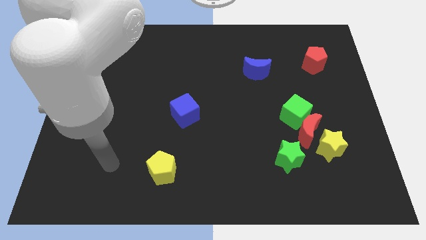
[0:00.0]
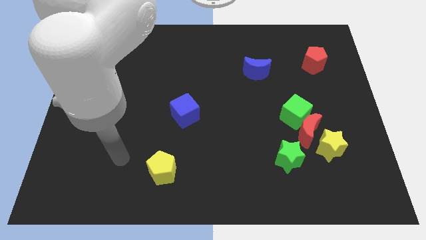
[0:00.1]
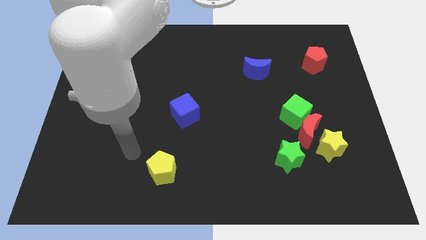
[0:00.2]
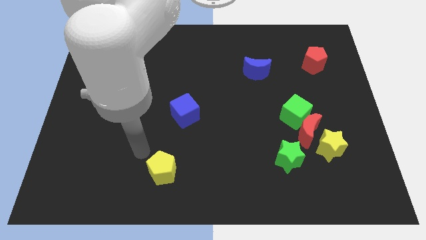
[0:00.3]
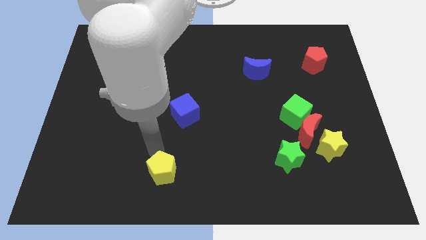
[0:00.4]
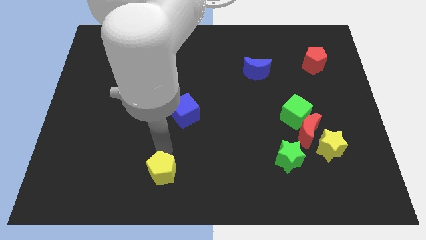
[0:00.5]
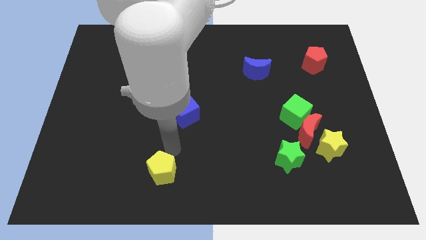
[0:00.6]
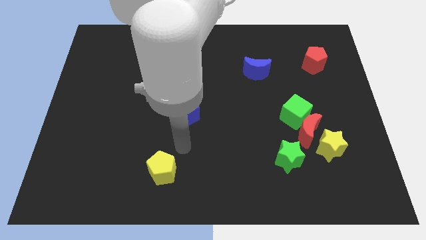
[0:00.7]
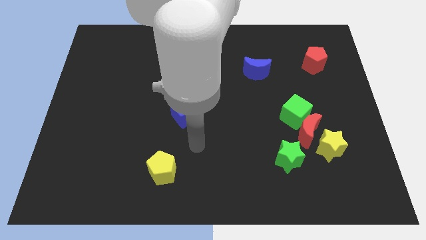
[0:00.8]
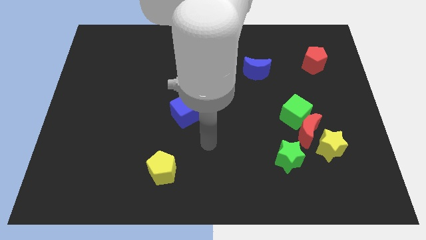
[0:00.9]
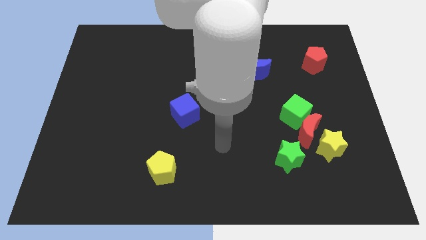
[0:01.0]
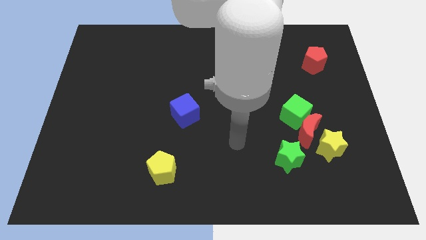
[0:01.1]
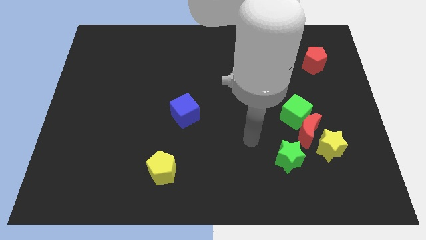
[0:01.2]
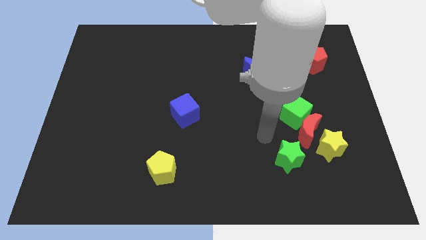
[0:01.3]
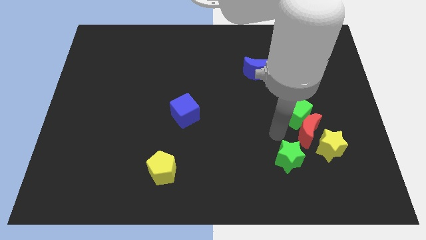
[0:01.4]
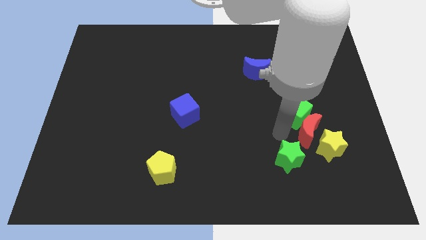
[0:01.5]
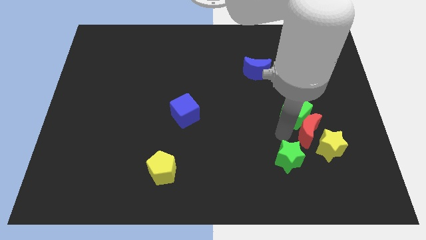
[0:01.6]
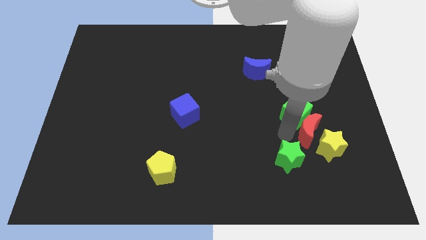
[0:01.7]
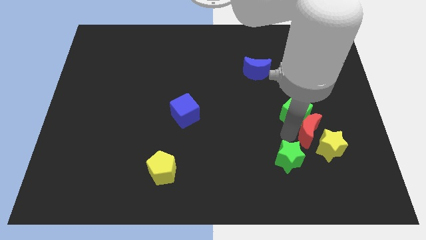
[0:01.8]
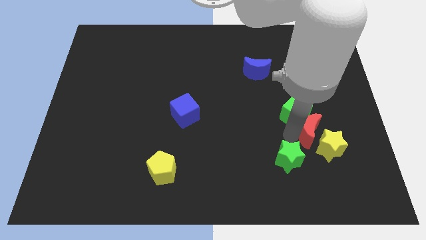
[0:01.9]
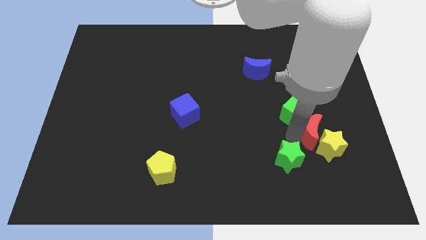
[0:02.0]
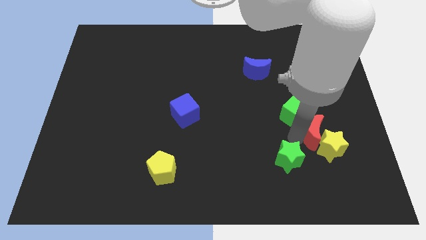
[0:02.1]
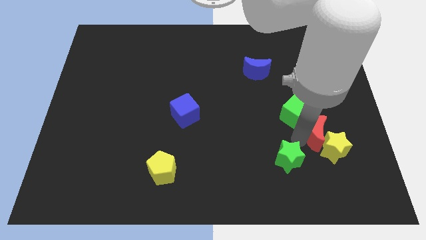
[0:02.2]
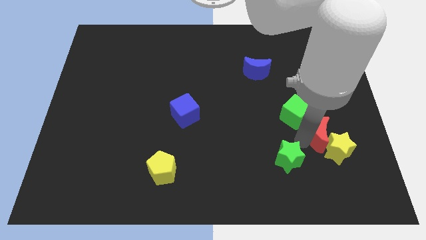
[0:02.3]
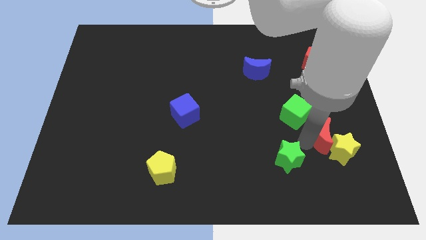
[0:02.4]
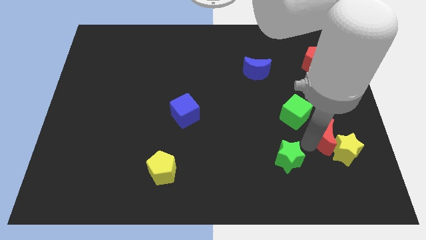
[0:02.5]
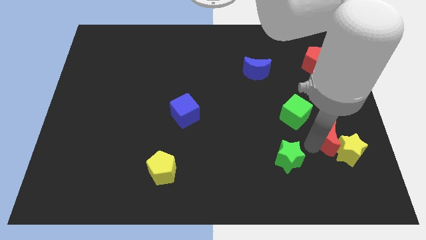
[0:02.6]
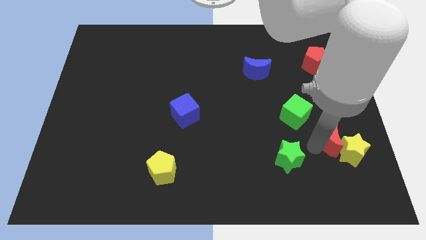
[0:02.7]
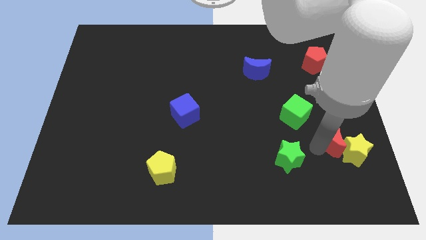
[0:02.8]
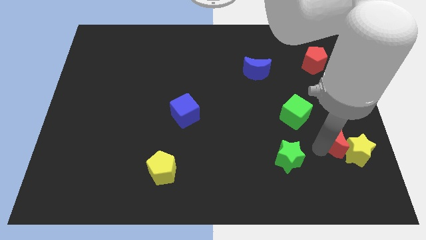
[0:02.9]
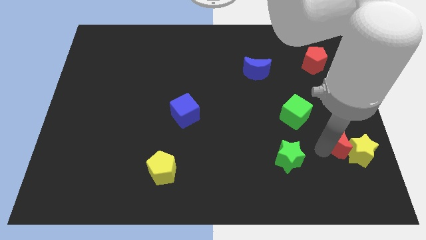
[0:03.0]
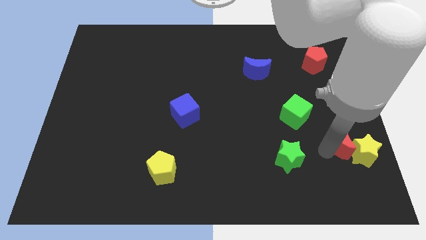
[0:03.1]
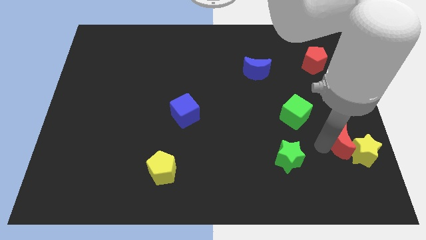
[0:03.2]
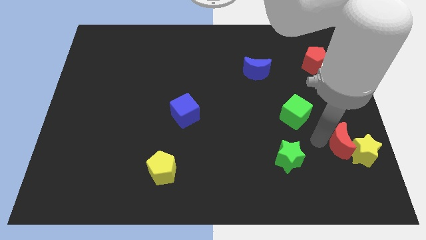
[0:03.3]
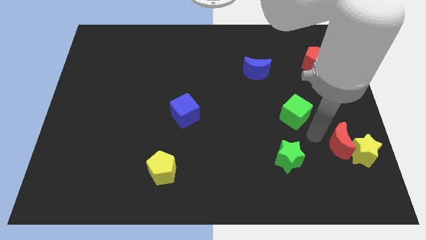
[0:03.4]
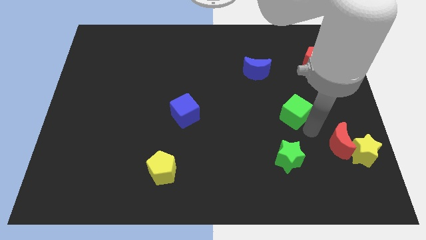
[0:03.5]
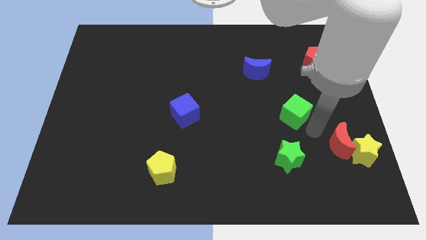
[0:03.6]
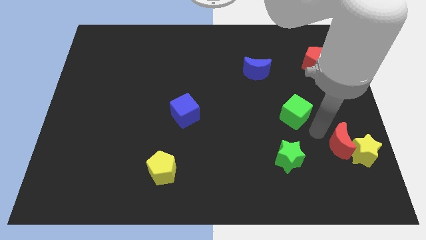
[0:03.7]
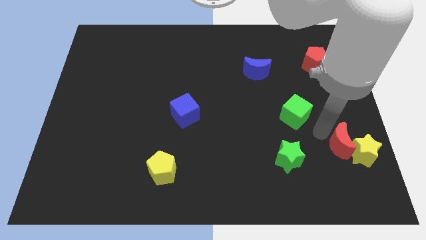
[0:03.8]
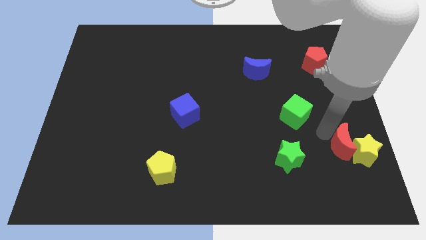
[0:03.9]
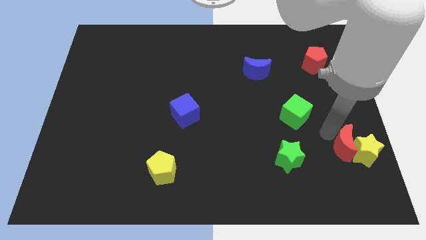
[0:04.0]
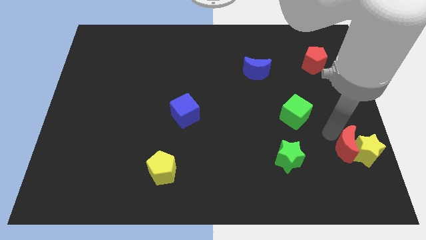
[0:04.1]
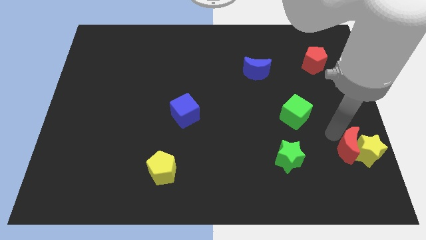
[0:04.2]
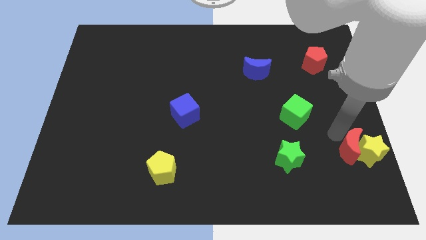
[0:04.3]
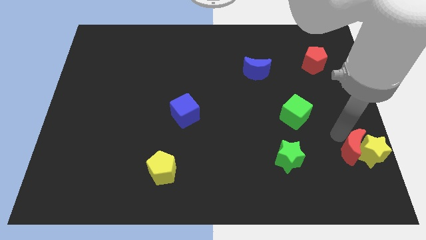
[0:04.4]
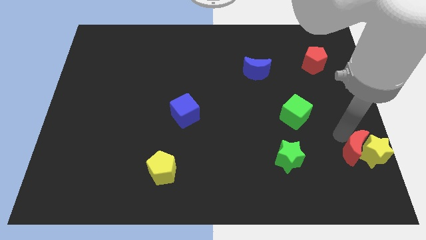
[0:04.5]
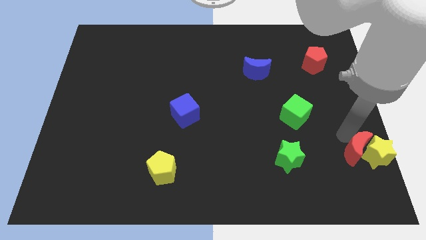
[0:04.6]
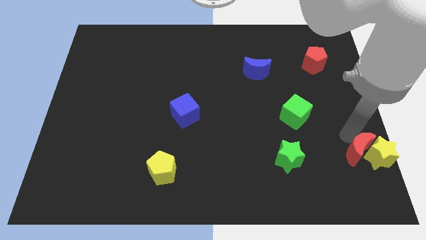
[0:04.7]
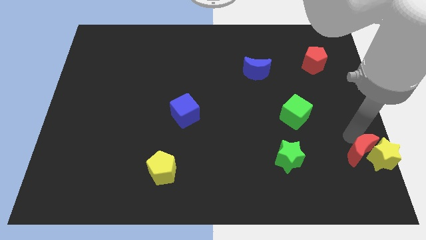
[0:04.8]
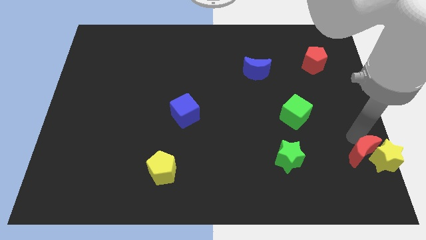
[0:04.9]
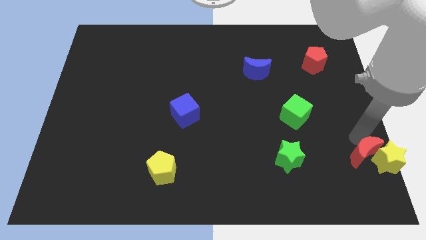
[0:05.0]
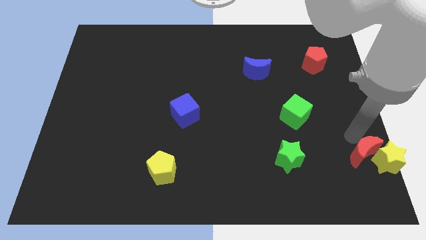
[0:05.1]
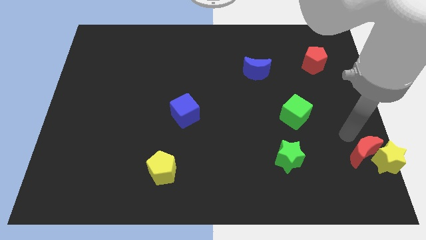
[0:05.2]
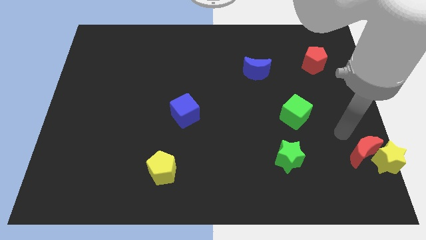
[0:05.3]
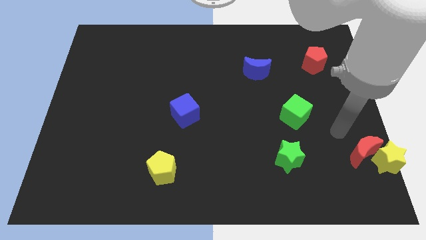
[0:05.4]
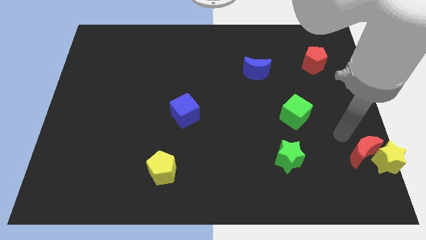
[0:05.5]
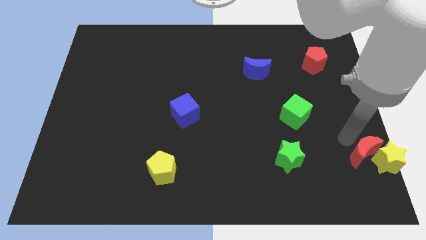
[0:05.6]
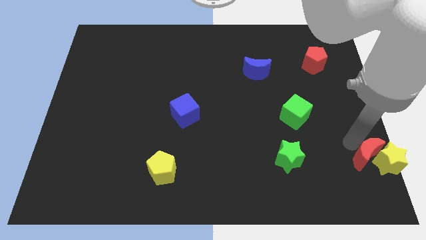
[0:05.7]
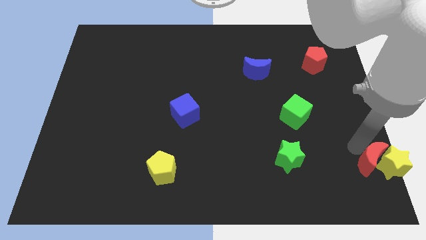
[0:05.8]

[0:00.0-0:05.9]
move the red moon to the bottom right of the board
